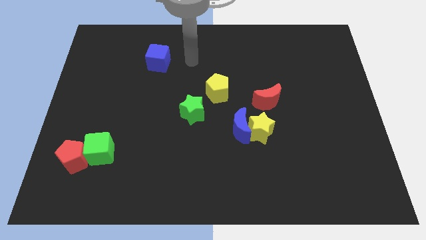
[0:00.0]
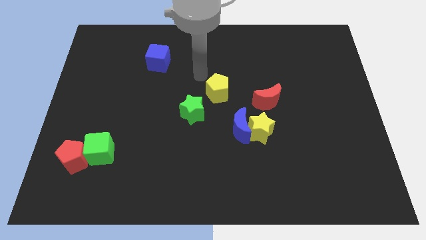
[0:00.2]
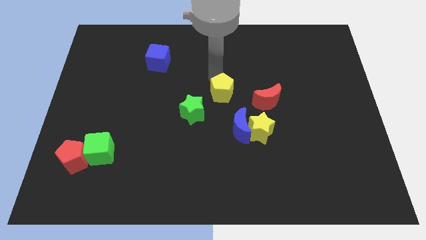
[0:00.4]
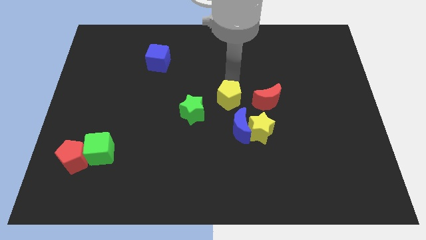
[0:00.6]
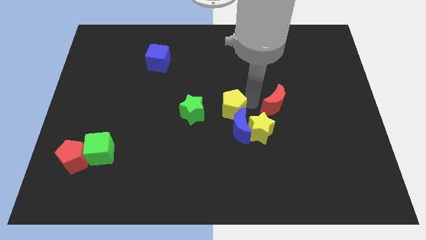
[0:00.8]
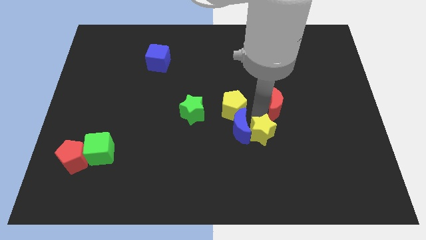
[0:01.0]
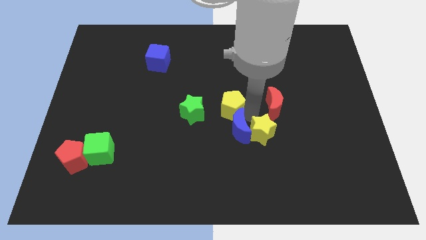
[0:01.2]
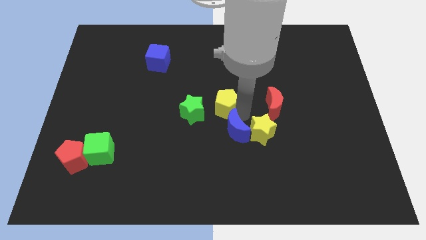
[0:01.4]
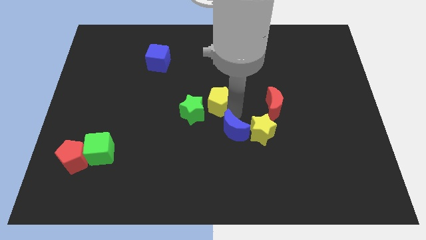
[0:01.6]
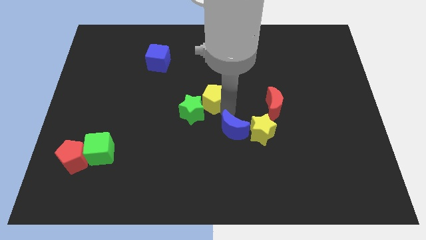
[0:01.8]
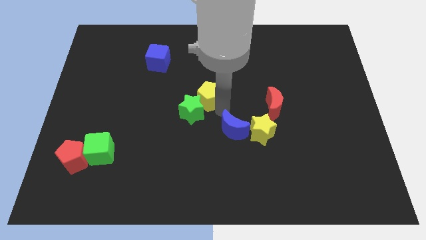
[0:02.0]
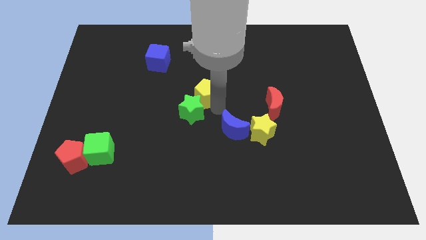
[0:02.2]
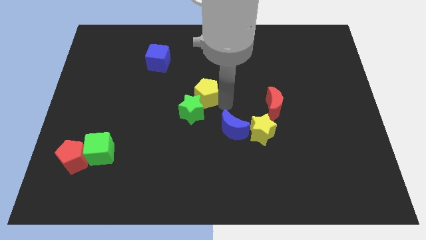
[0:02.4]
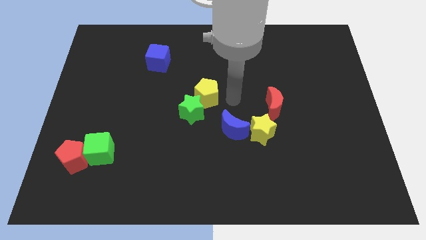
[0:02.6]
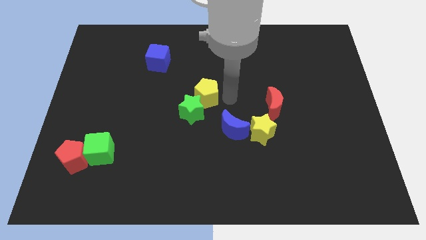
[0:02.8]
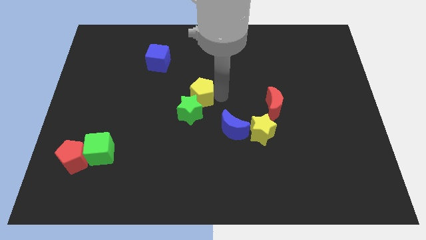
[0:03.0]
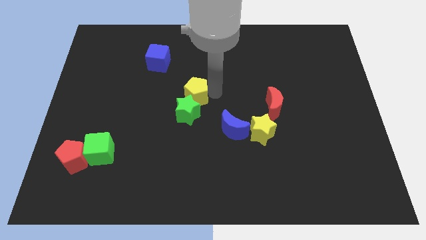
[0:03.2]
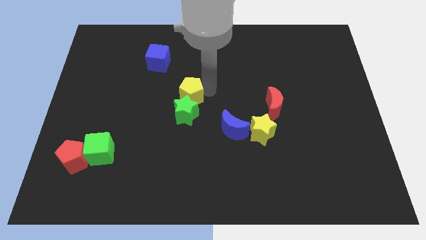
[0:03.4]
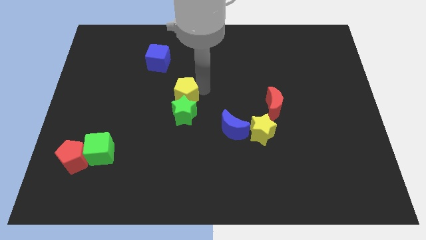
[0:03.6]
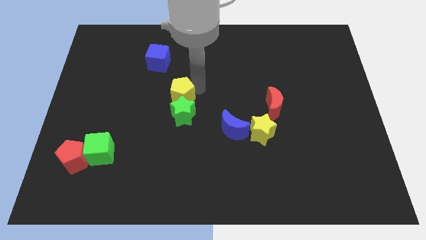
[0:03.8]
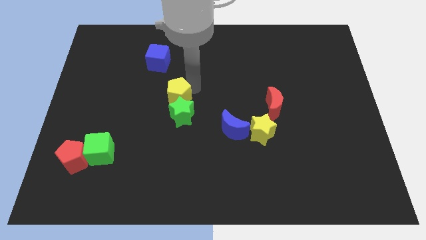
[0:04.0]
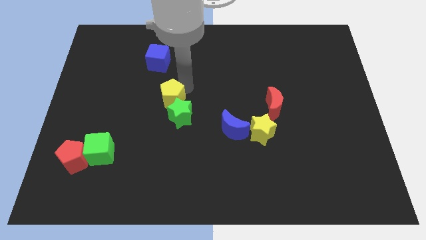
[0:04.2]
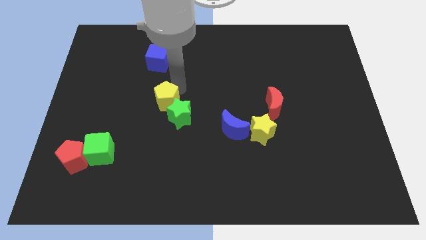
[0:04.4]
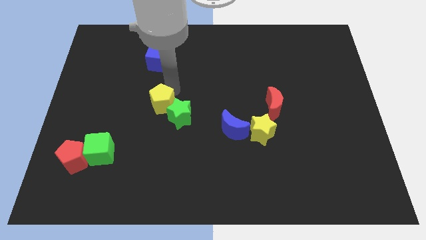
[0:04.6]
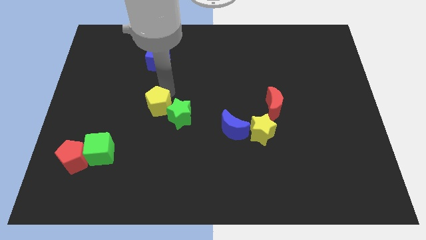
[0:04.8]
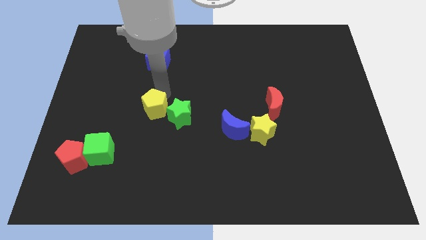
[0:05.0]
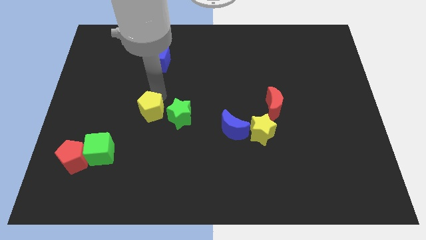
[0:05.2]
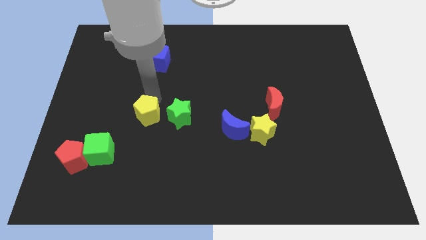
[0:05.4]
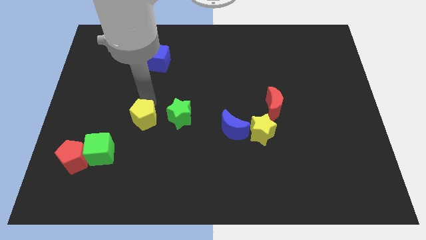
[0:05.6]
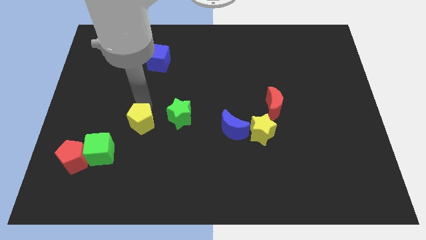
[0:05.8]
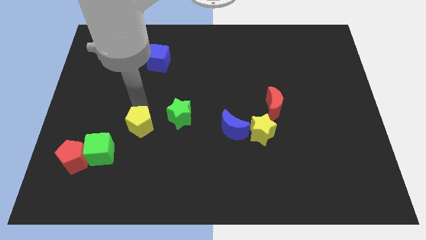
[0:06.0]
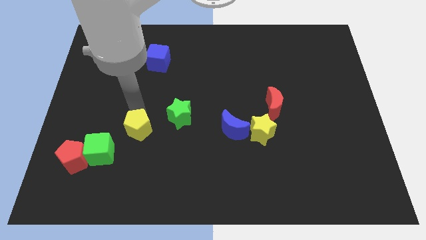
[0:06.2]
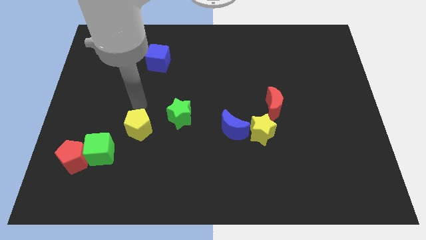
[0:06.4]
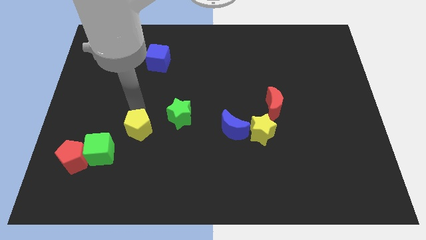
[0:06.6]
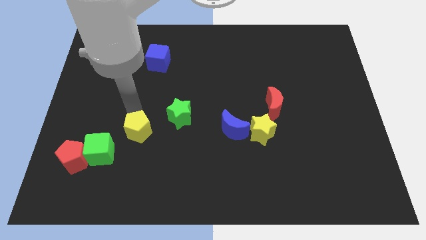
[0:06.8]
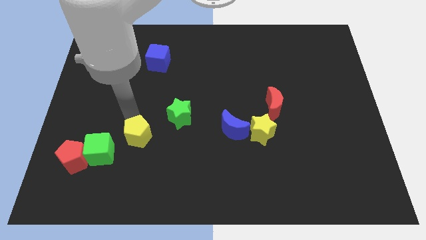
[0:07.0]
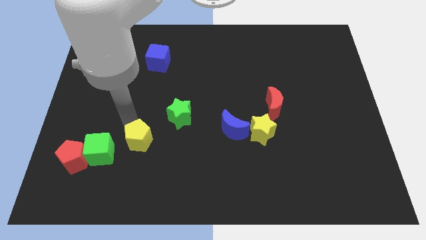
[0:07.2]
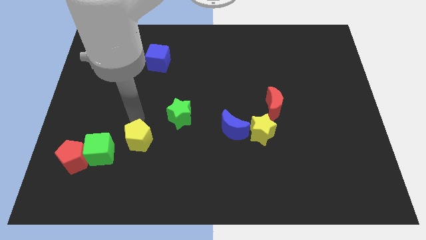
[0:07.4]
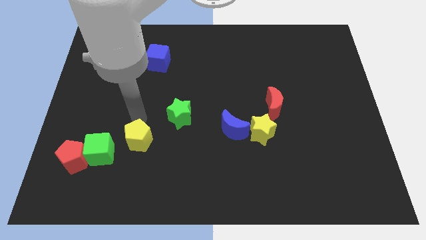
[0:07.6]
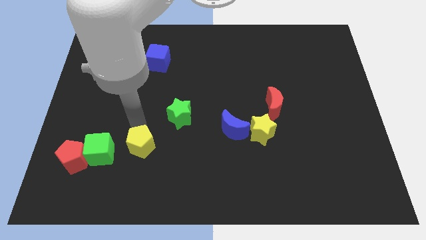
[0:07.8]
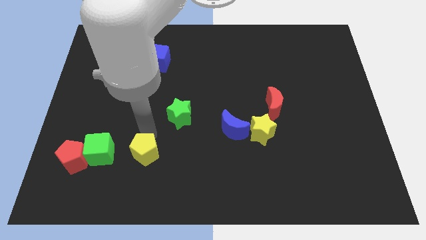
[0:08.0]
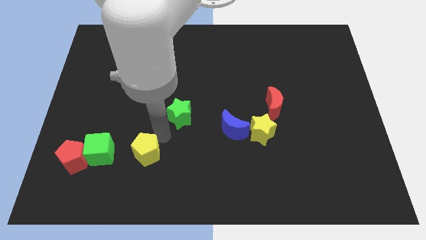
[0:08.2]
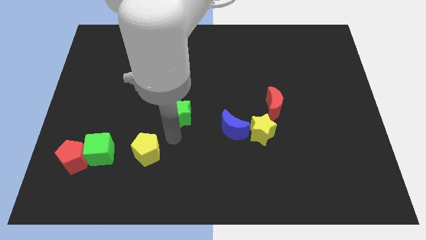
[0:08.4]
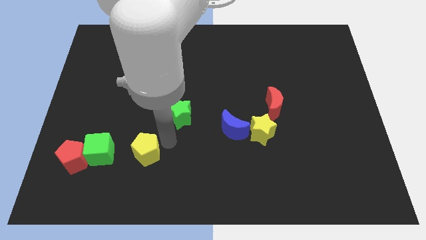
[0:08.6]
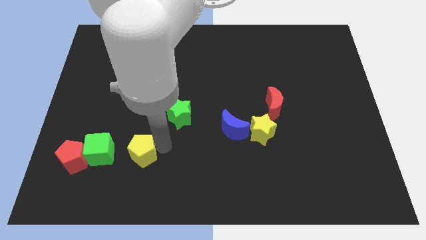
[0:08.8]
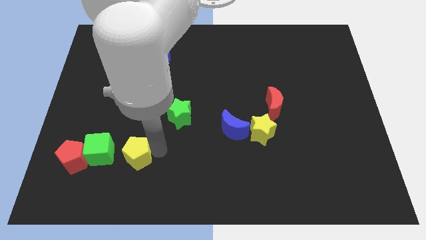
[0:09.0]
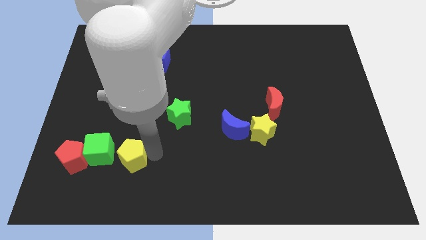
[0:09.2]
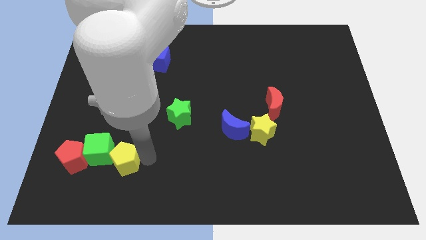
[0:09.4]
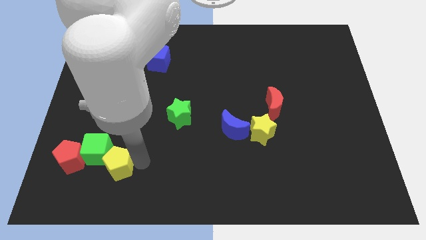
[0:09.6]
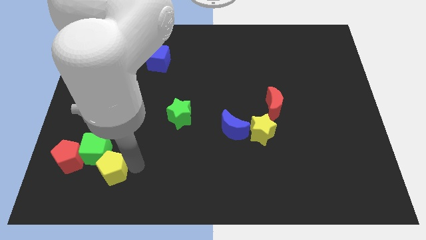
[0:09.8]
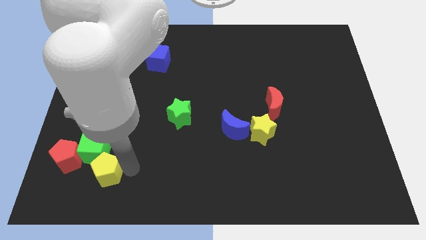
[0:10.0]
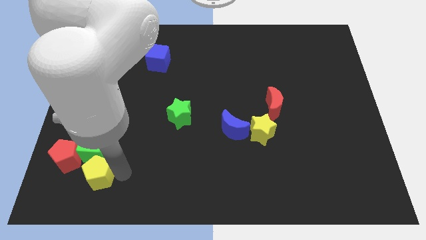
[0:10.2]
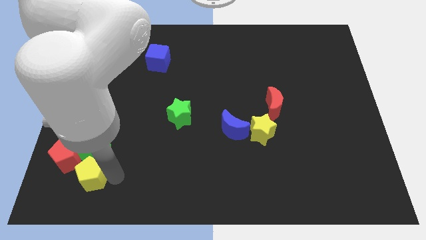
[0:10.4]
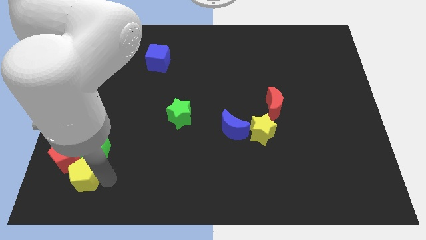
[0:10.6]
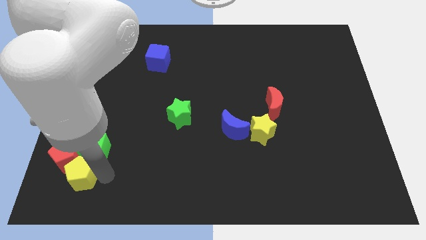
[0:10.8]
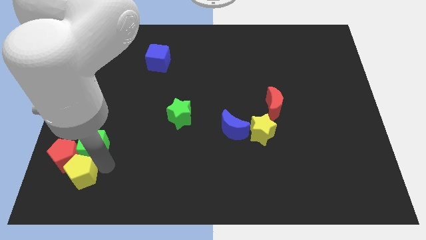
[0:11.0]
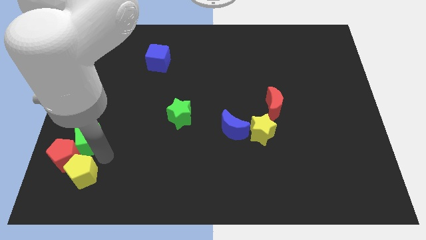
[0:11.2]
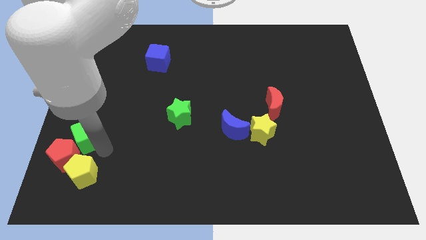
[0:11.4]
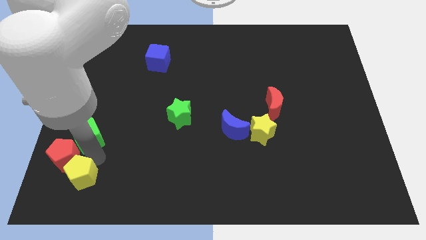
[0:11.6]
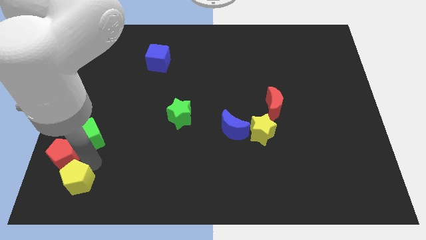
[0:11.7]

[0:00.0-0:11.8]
move the yellow pentagon to the lower left corner

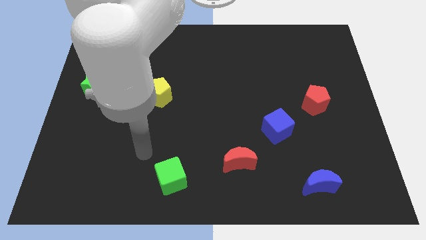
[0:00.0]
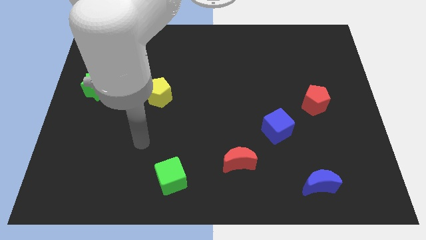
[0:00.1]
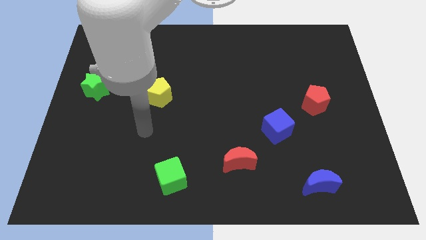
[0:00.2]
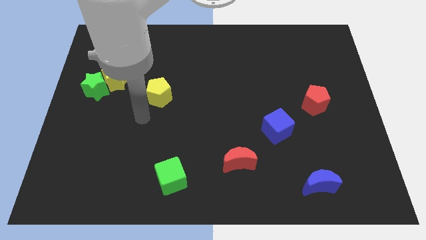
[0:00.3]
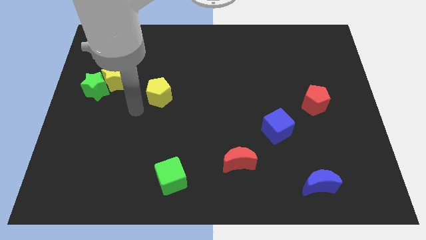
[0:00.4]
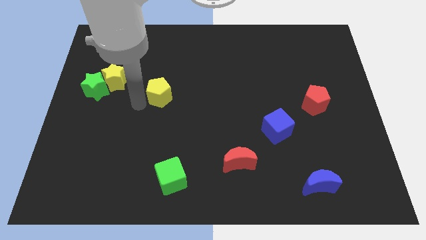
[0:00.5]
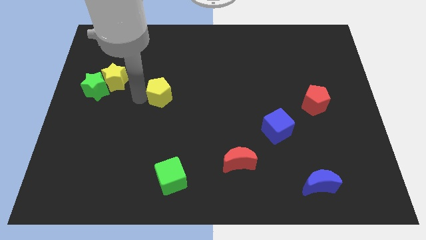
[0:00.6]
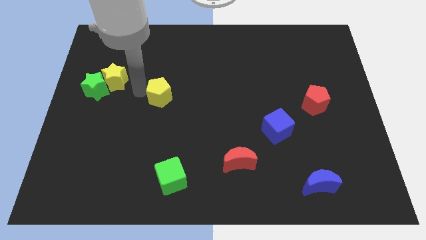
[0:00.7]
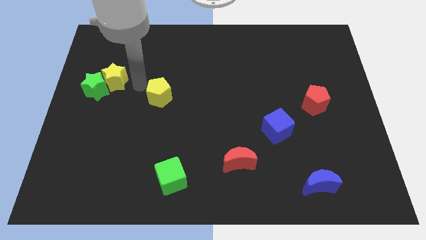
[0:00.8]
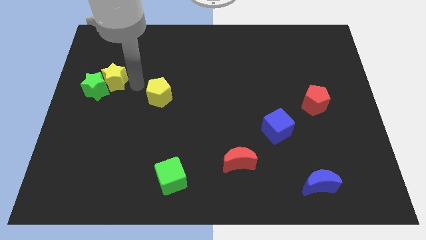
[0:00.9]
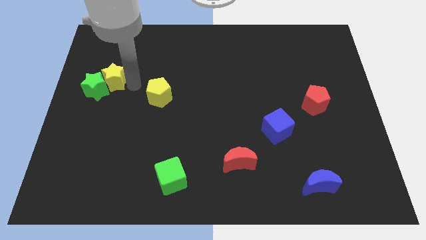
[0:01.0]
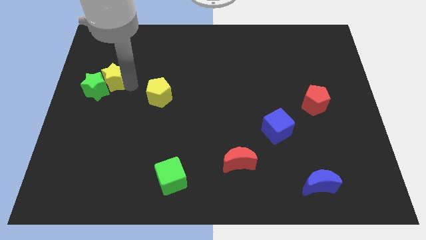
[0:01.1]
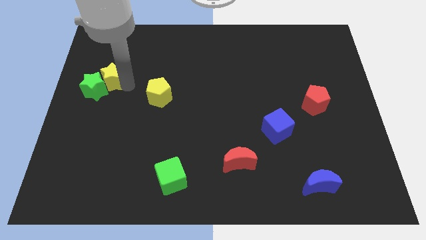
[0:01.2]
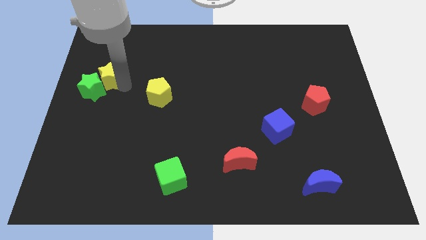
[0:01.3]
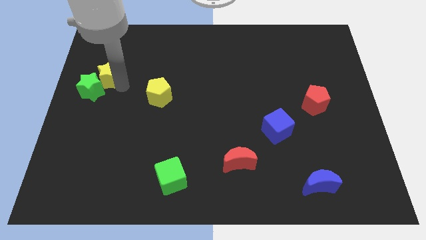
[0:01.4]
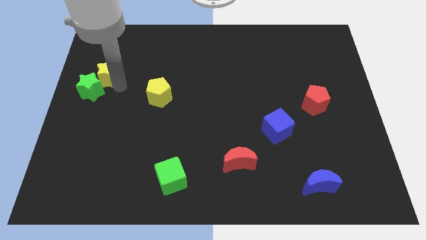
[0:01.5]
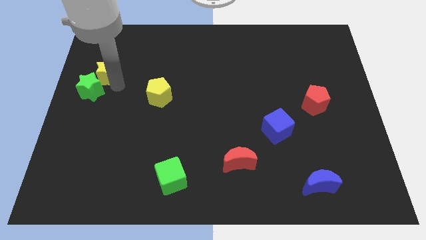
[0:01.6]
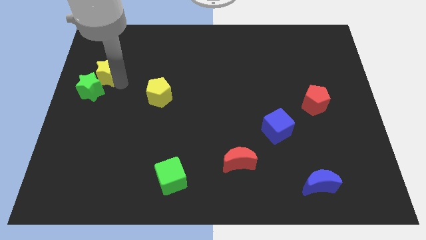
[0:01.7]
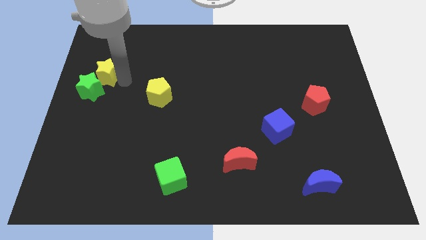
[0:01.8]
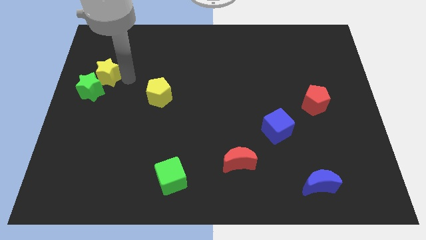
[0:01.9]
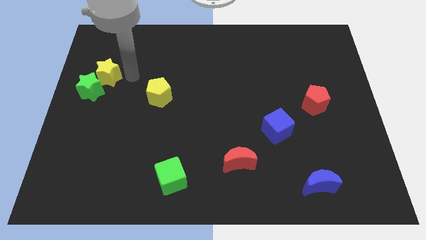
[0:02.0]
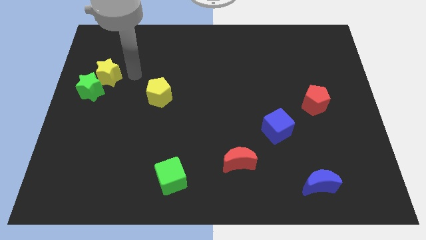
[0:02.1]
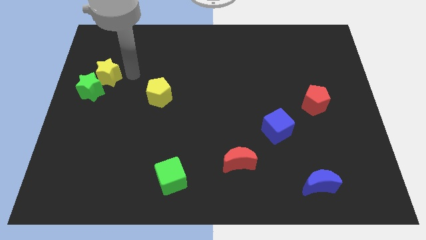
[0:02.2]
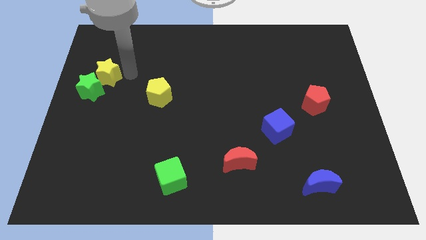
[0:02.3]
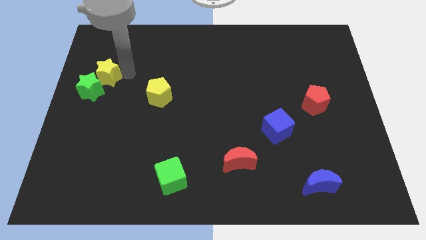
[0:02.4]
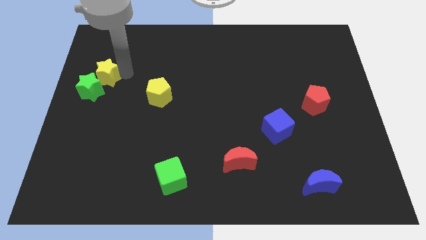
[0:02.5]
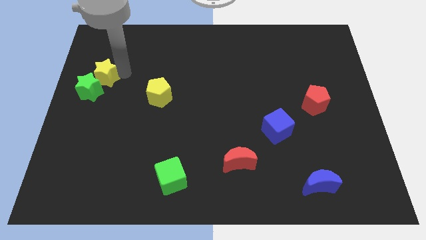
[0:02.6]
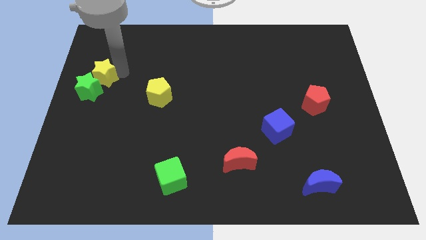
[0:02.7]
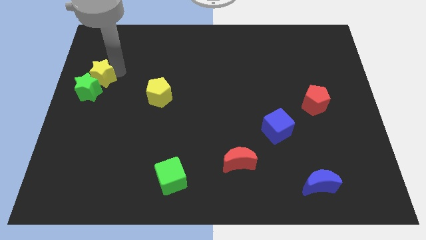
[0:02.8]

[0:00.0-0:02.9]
move the yellow star to the left side of the board
